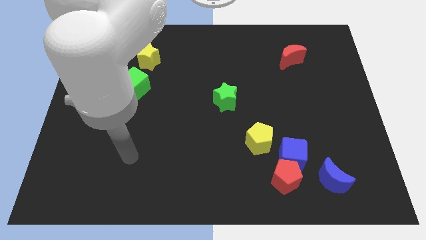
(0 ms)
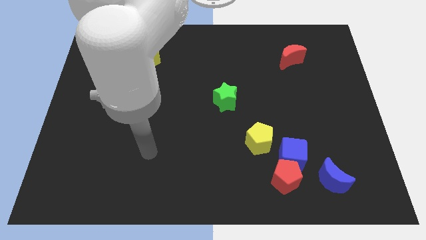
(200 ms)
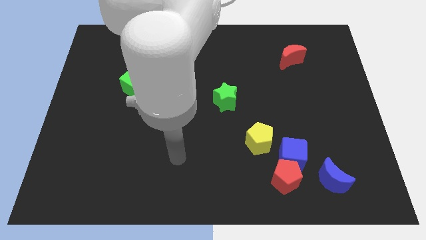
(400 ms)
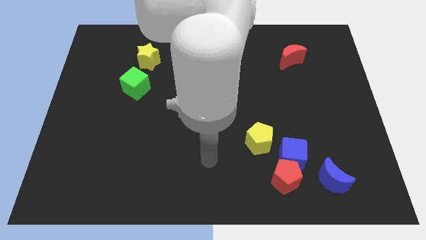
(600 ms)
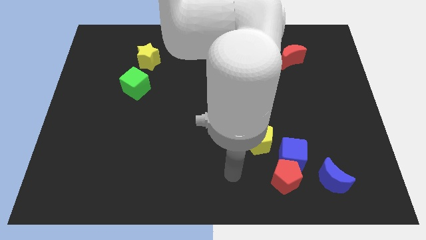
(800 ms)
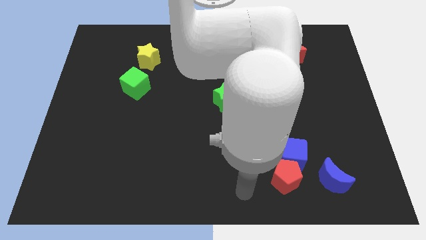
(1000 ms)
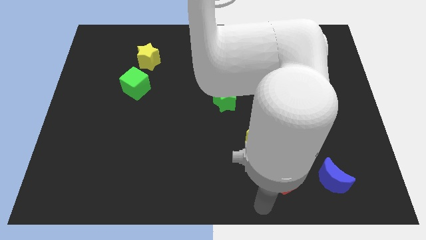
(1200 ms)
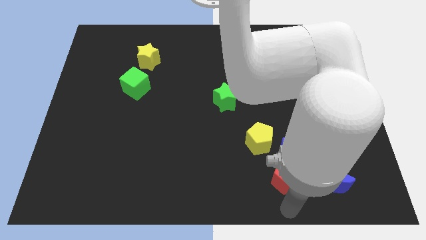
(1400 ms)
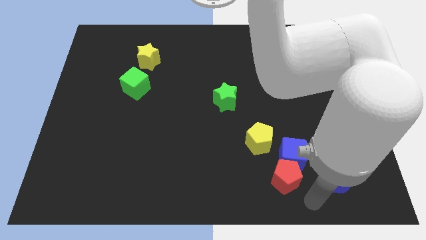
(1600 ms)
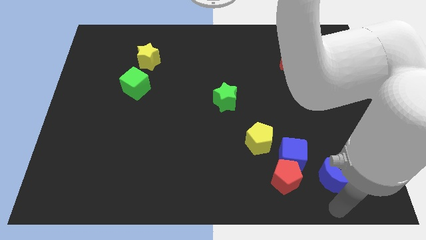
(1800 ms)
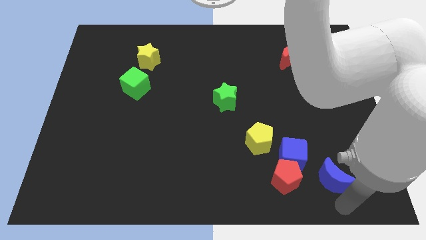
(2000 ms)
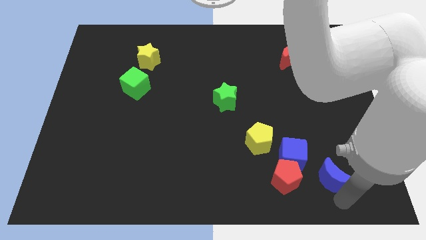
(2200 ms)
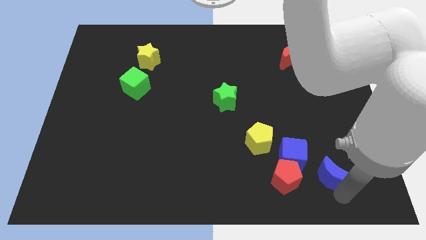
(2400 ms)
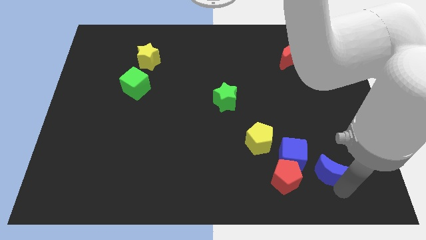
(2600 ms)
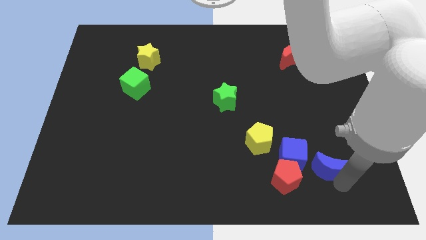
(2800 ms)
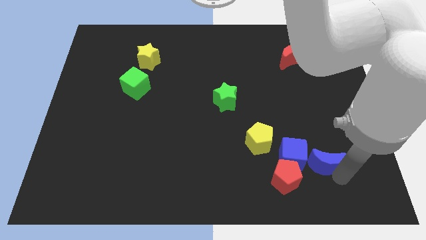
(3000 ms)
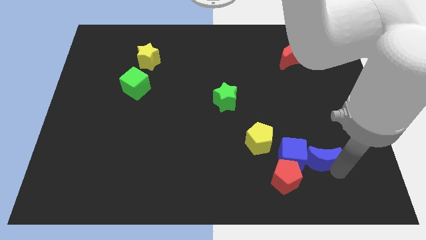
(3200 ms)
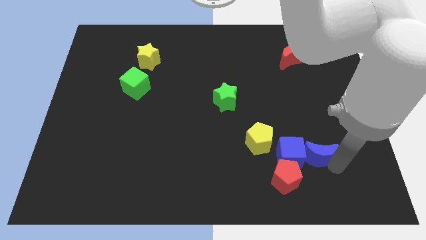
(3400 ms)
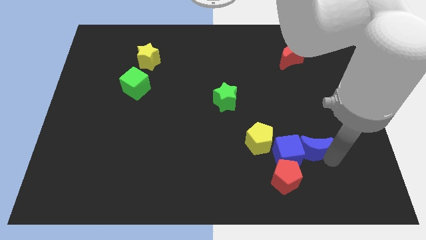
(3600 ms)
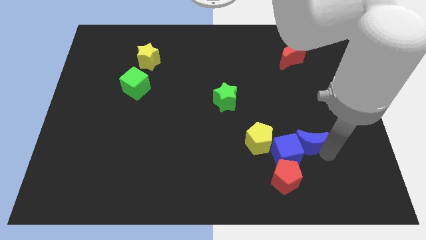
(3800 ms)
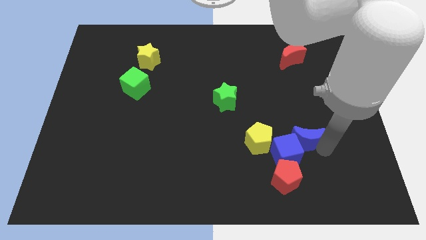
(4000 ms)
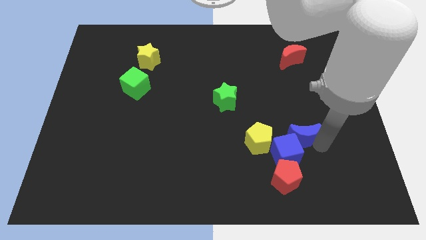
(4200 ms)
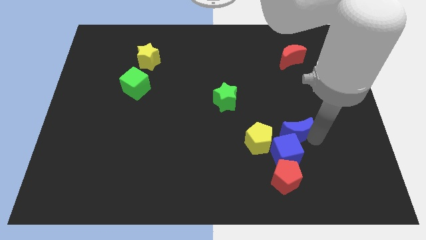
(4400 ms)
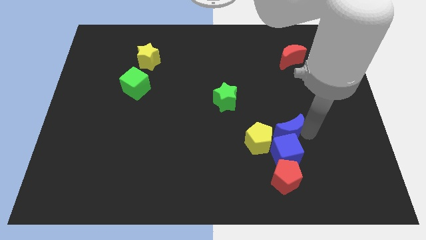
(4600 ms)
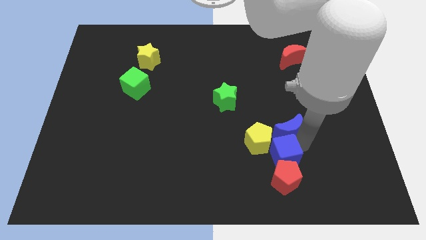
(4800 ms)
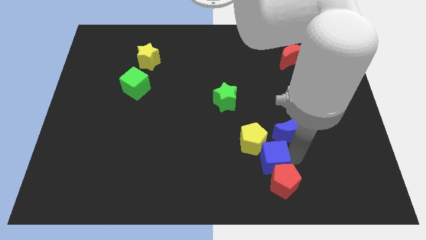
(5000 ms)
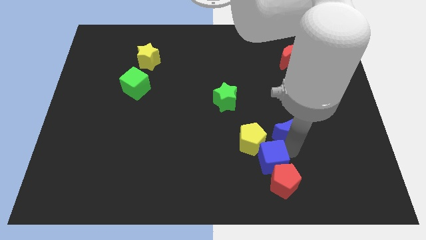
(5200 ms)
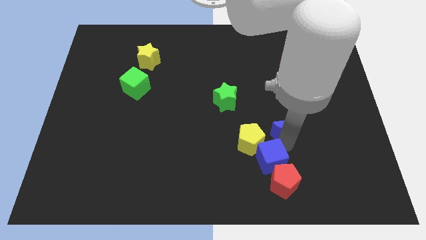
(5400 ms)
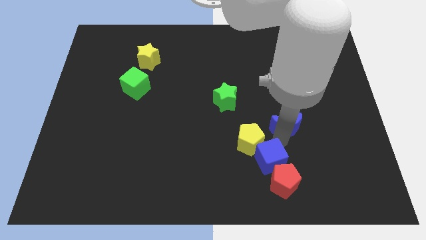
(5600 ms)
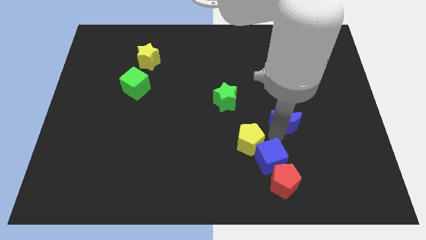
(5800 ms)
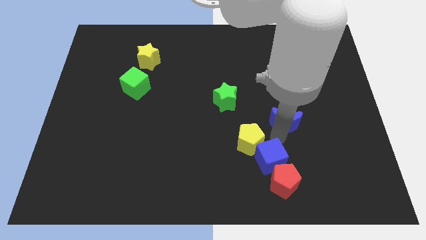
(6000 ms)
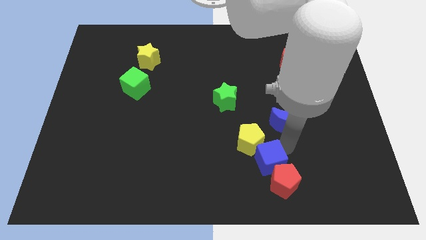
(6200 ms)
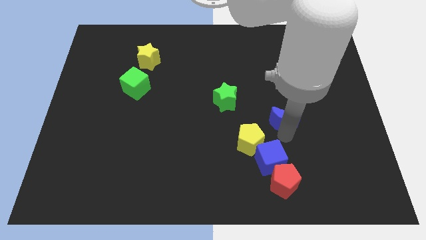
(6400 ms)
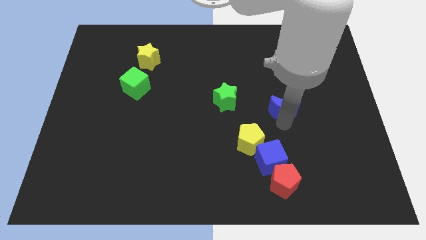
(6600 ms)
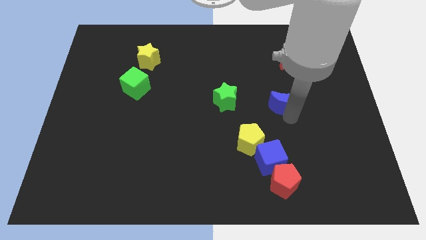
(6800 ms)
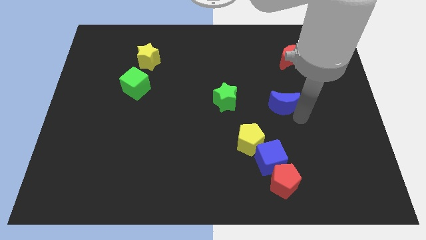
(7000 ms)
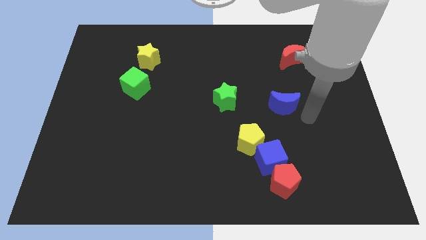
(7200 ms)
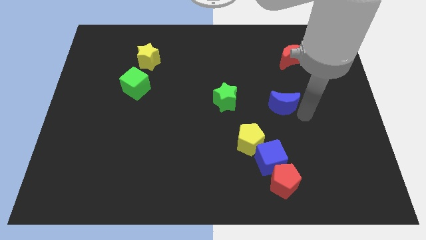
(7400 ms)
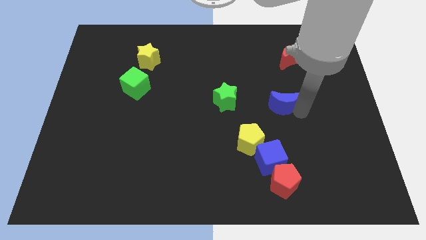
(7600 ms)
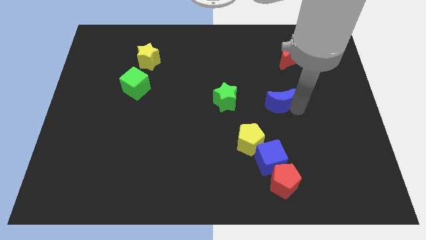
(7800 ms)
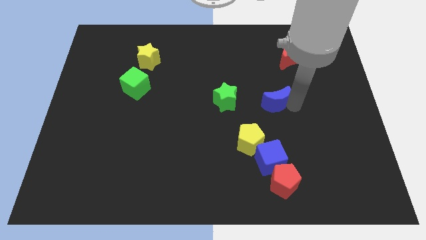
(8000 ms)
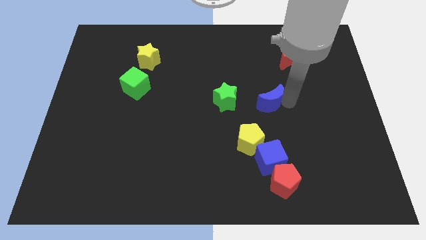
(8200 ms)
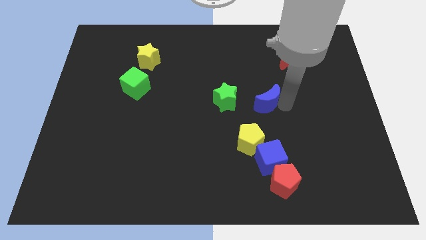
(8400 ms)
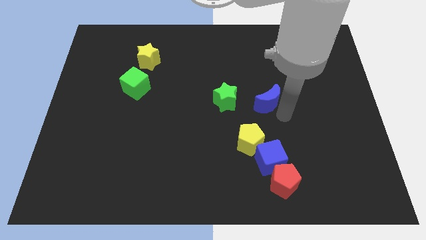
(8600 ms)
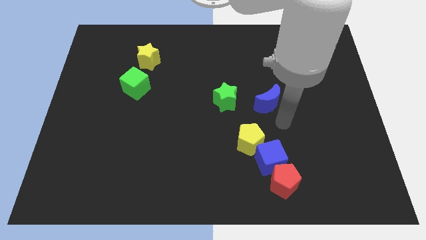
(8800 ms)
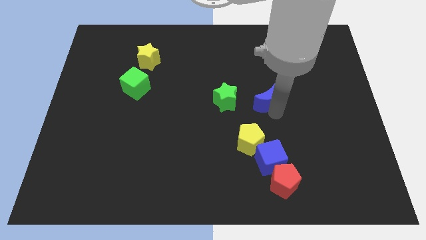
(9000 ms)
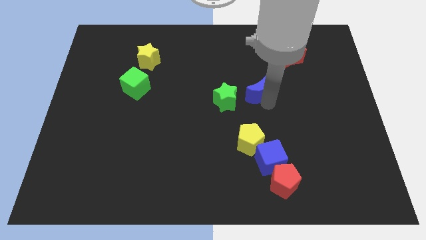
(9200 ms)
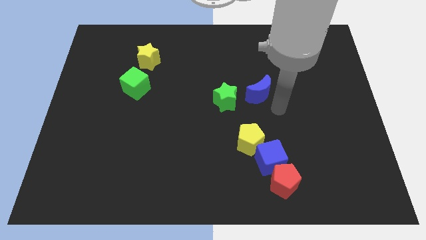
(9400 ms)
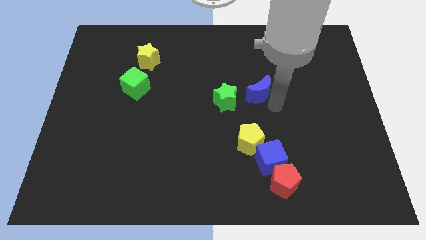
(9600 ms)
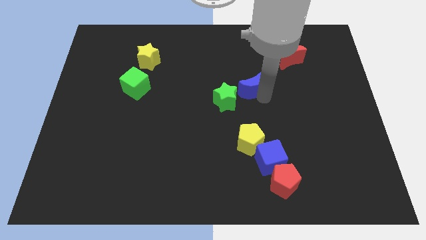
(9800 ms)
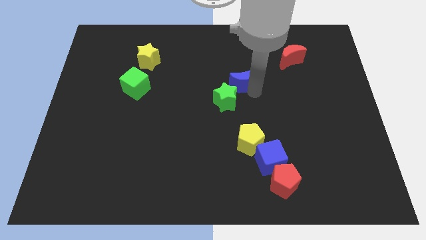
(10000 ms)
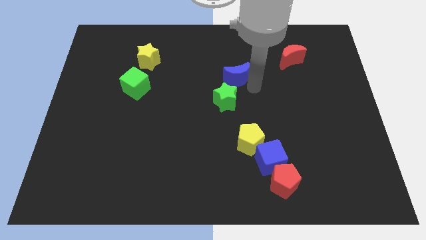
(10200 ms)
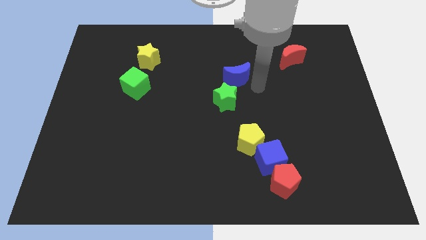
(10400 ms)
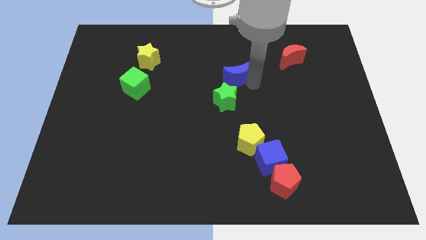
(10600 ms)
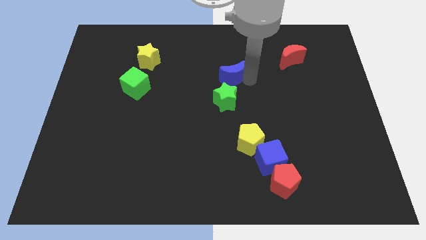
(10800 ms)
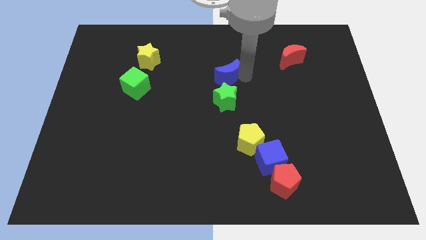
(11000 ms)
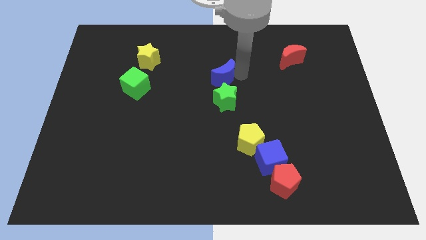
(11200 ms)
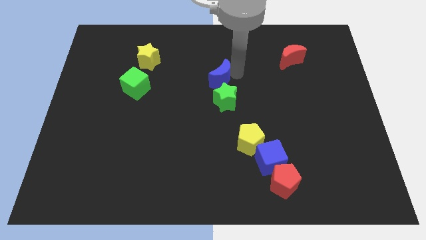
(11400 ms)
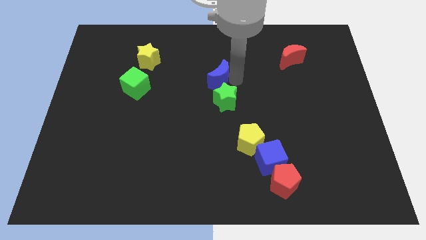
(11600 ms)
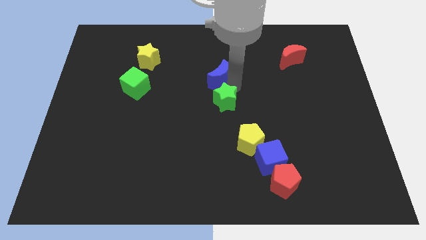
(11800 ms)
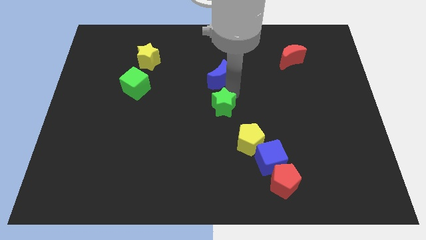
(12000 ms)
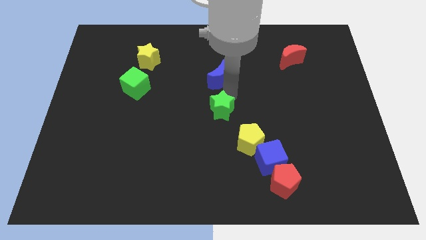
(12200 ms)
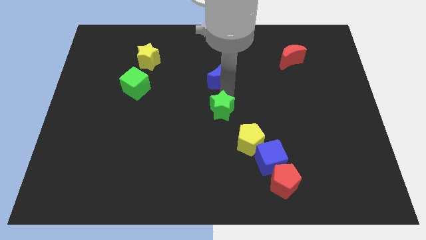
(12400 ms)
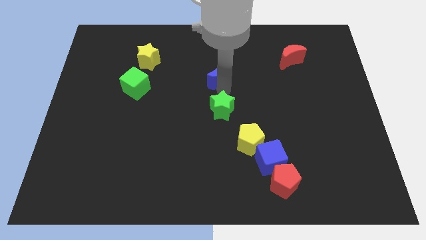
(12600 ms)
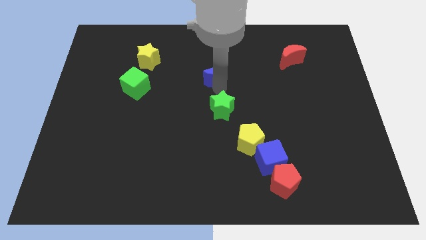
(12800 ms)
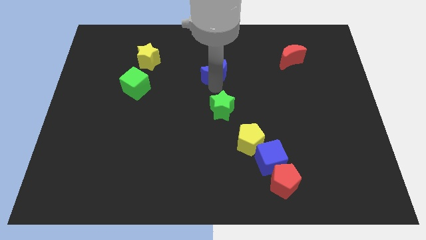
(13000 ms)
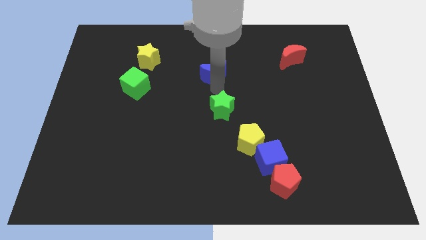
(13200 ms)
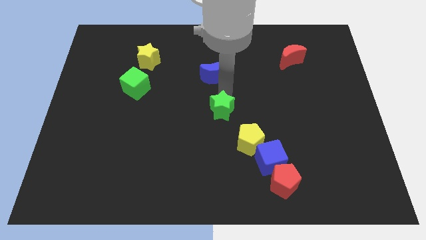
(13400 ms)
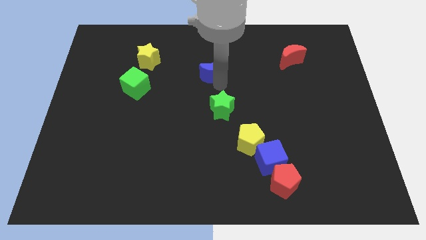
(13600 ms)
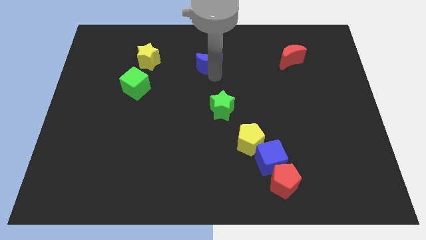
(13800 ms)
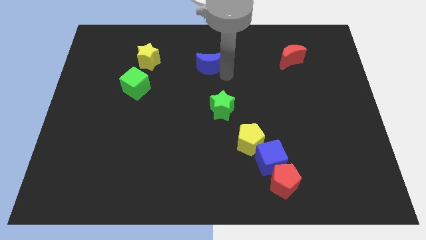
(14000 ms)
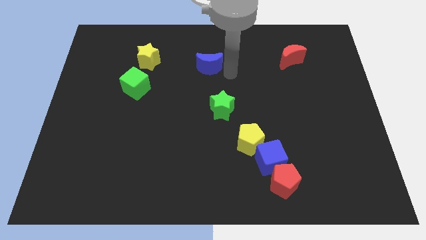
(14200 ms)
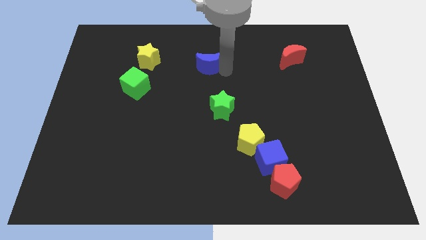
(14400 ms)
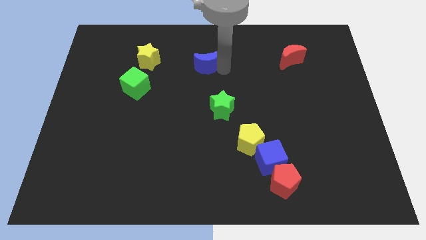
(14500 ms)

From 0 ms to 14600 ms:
move the blue moon right of the yellow star
